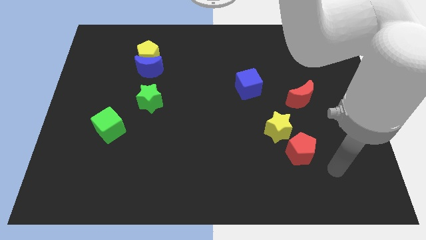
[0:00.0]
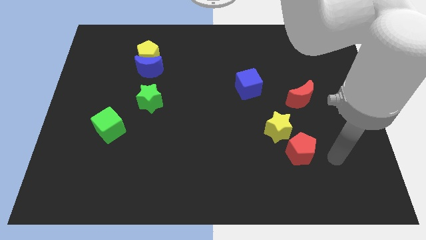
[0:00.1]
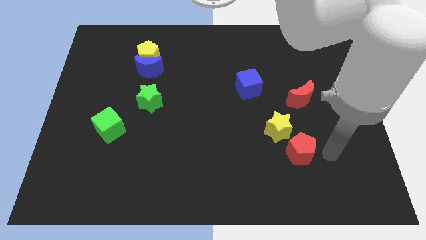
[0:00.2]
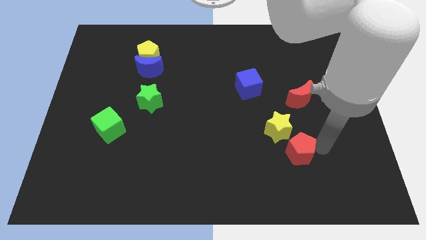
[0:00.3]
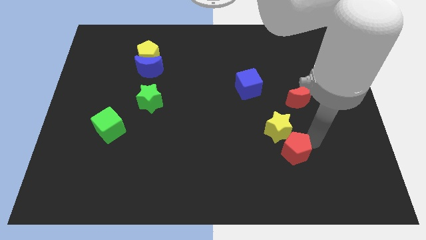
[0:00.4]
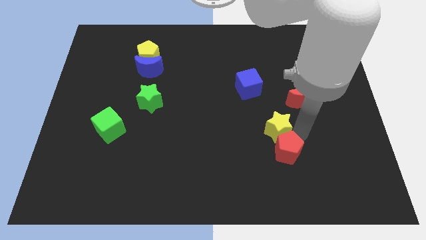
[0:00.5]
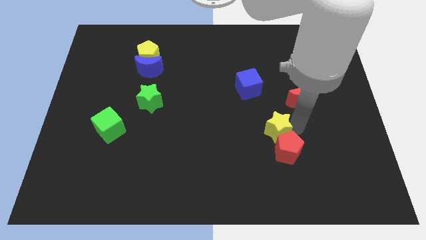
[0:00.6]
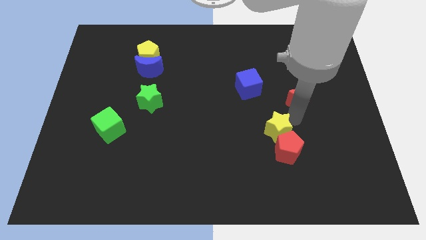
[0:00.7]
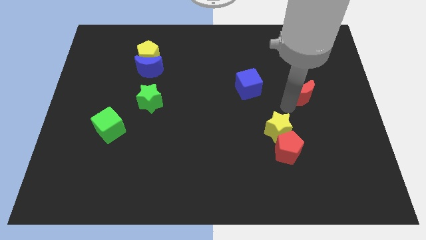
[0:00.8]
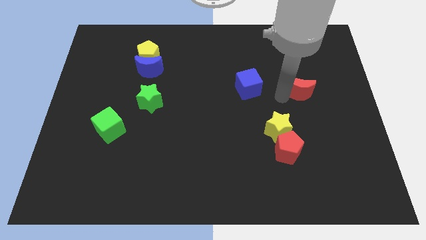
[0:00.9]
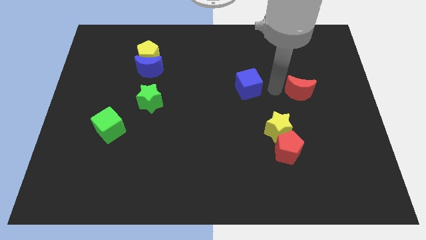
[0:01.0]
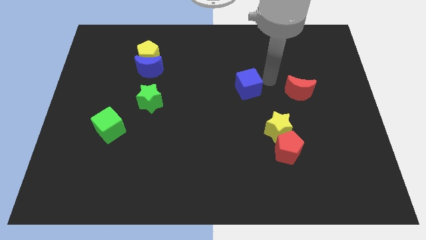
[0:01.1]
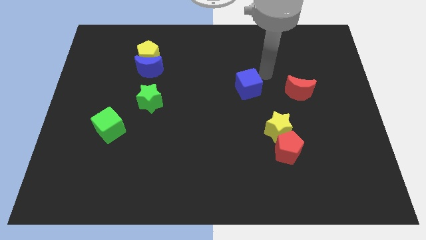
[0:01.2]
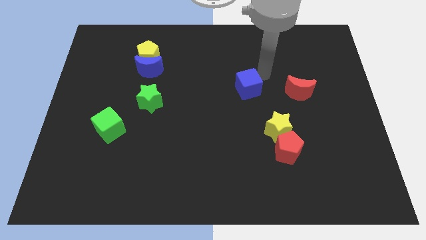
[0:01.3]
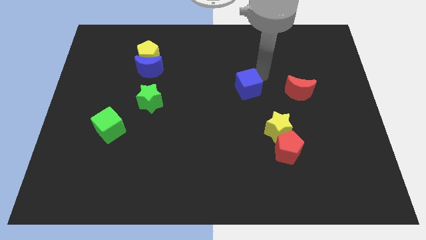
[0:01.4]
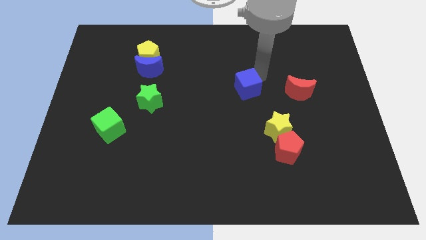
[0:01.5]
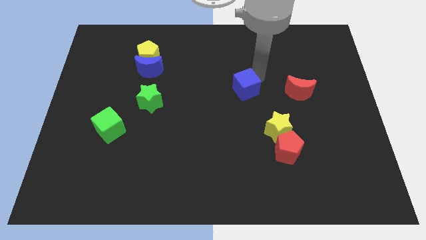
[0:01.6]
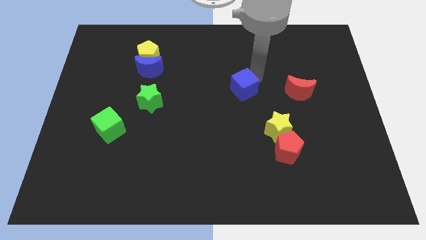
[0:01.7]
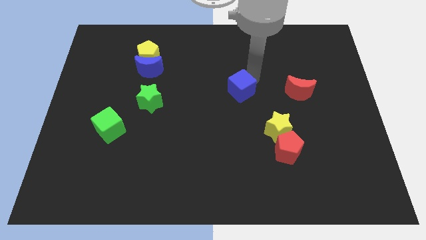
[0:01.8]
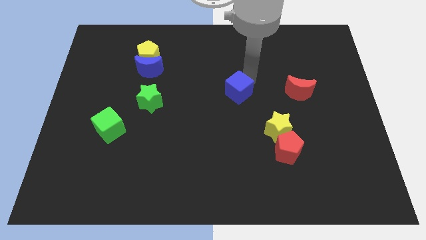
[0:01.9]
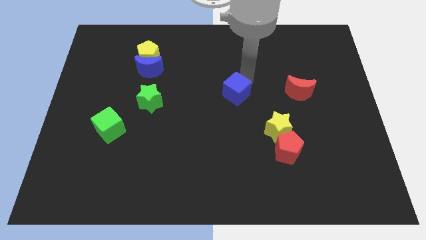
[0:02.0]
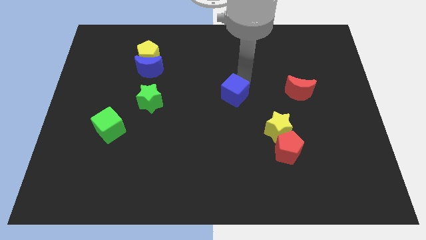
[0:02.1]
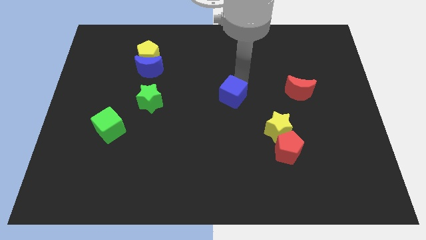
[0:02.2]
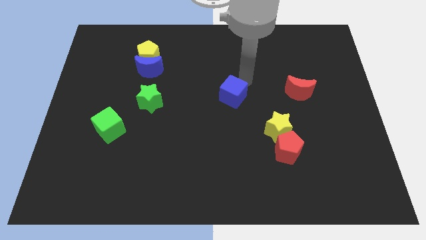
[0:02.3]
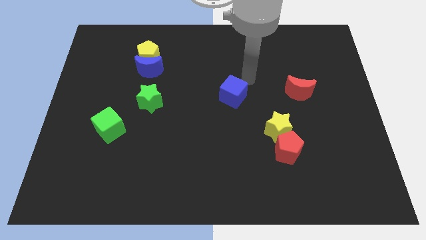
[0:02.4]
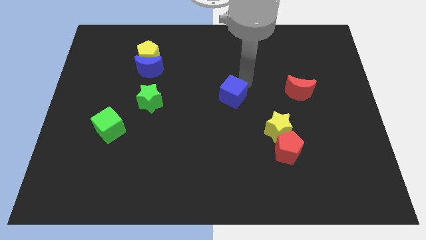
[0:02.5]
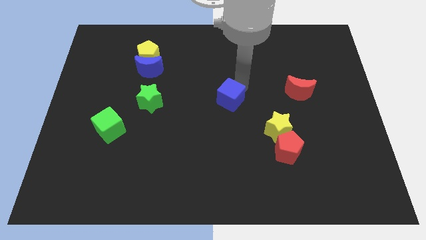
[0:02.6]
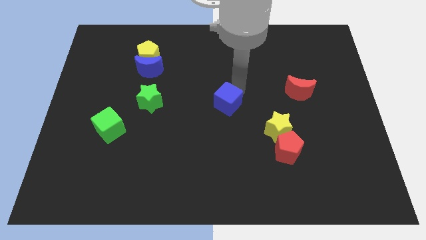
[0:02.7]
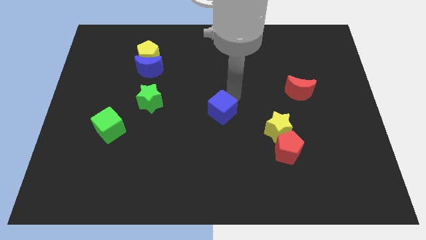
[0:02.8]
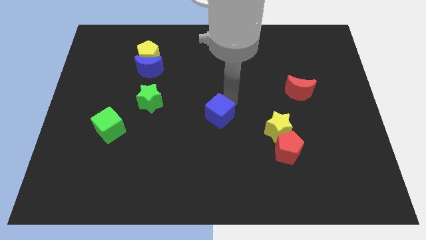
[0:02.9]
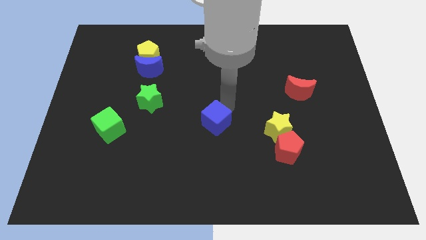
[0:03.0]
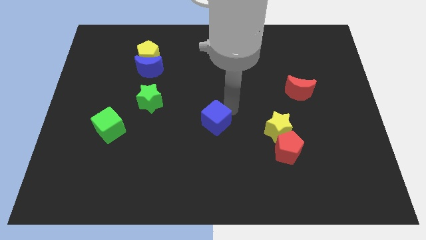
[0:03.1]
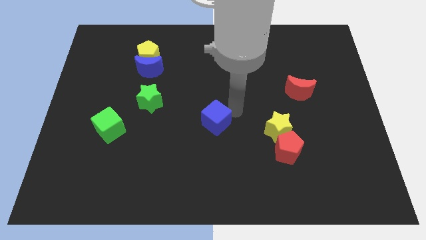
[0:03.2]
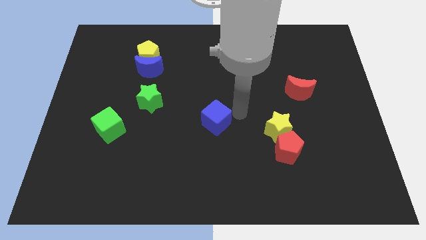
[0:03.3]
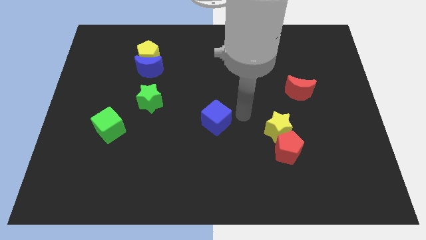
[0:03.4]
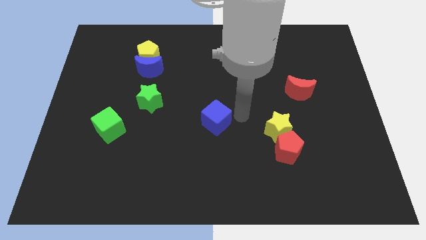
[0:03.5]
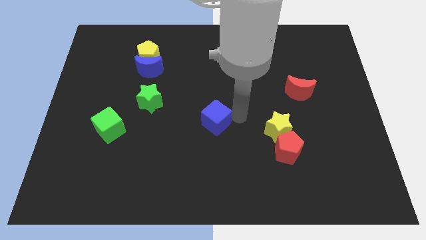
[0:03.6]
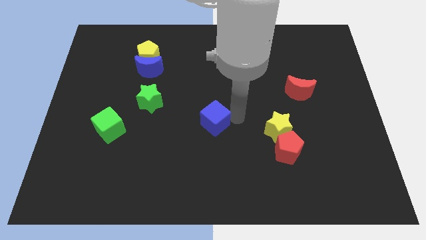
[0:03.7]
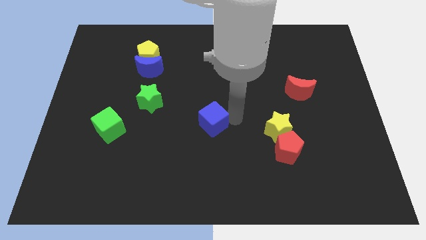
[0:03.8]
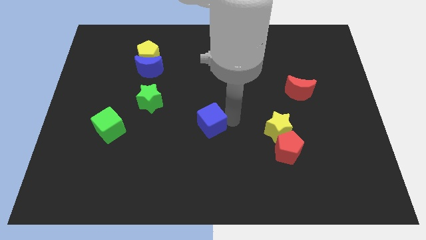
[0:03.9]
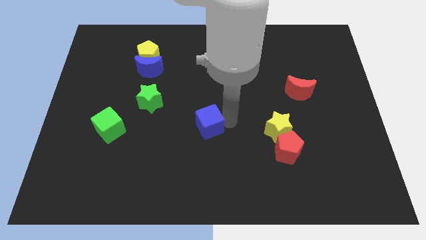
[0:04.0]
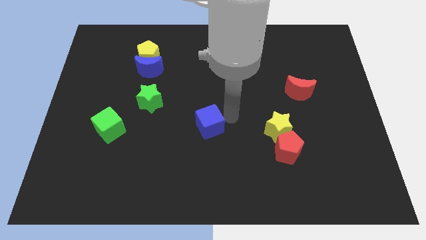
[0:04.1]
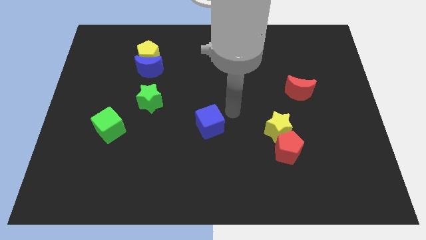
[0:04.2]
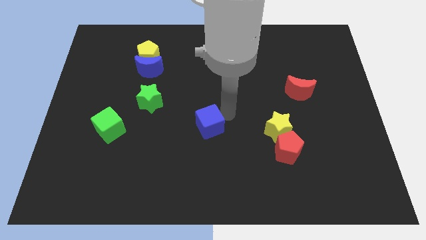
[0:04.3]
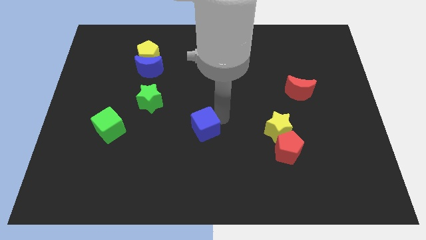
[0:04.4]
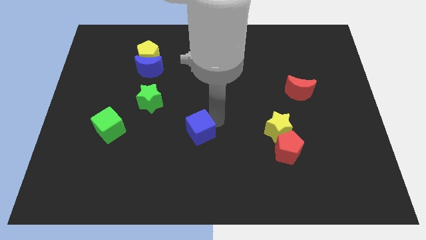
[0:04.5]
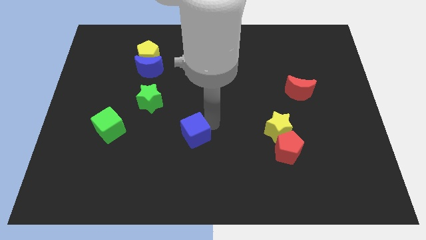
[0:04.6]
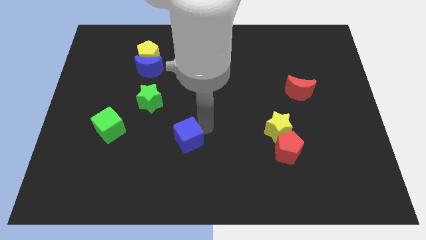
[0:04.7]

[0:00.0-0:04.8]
push the blue cube down and then left

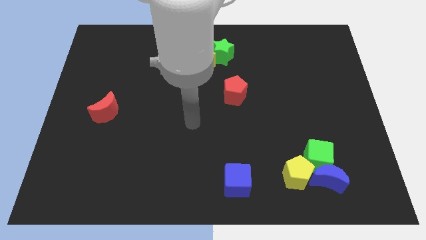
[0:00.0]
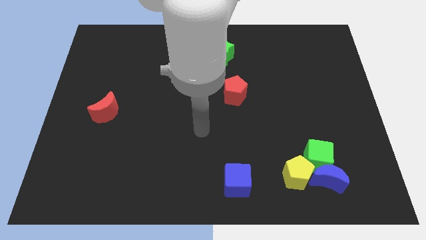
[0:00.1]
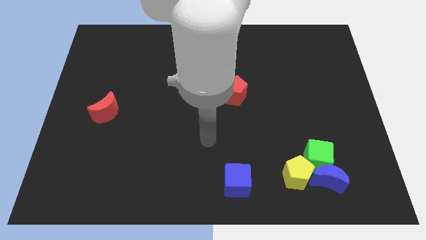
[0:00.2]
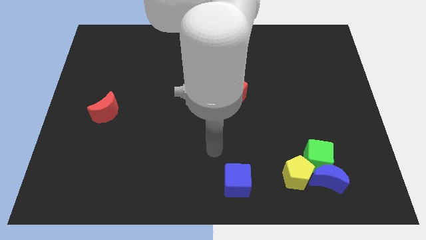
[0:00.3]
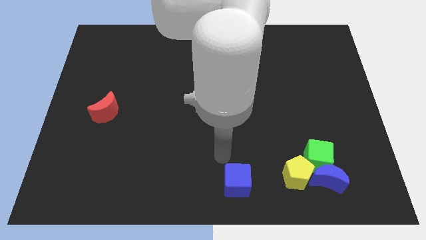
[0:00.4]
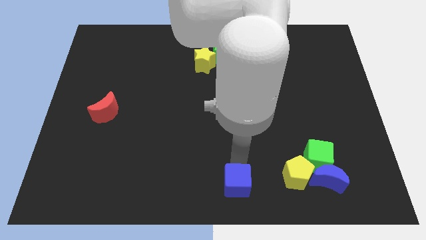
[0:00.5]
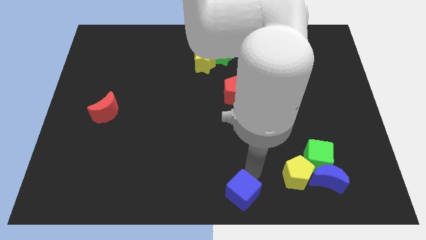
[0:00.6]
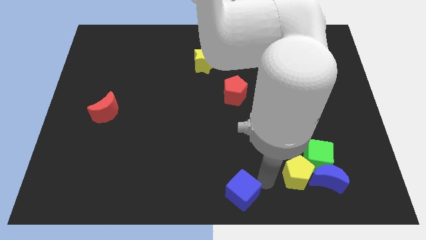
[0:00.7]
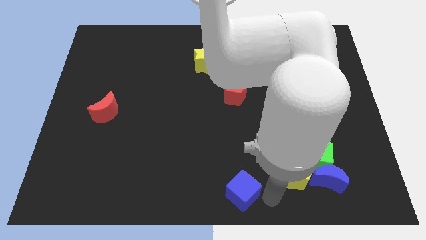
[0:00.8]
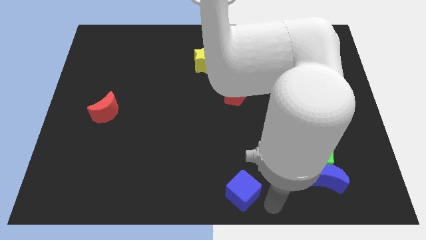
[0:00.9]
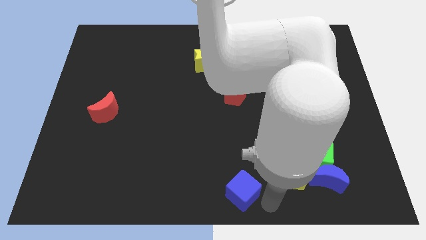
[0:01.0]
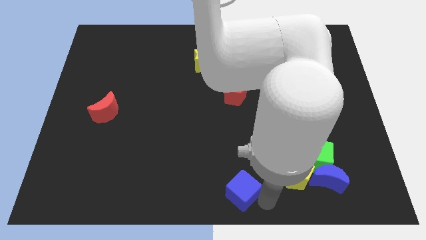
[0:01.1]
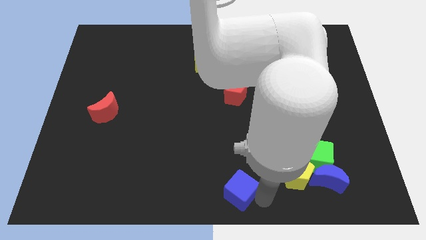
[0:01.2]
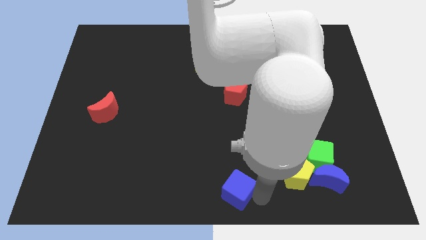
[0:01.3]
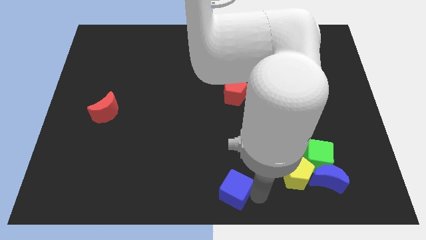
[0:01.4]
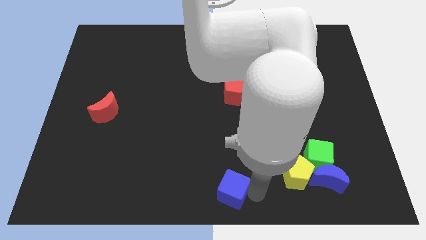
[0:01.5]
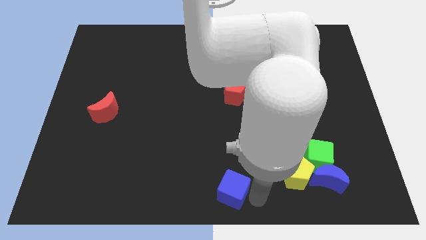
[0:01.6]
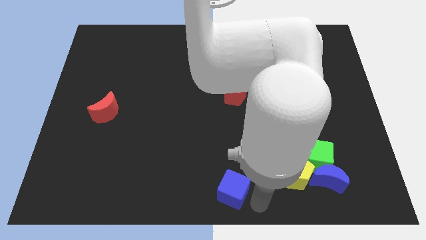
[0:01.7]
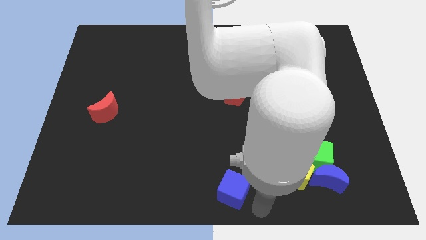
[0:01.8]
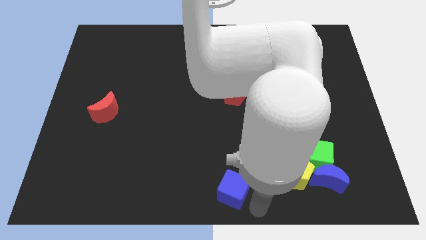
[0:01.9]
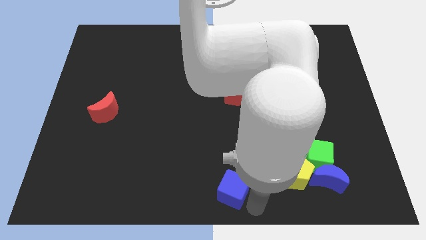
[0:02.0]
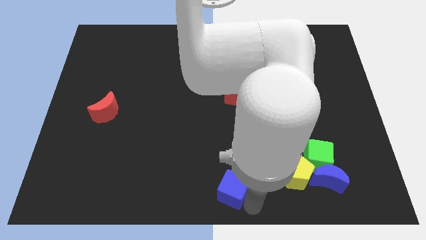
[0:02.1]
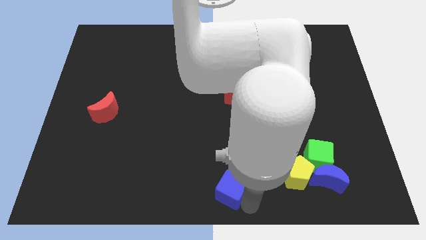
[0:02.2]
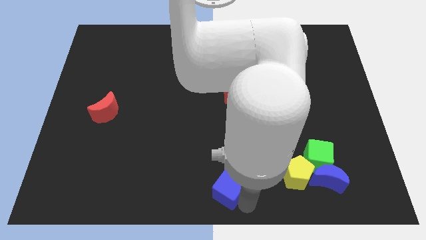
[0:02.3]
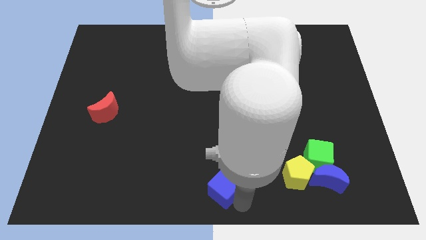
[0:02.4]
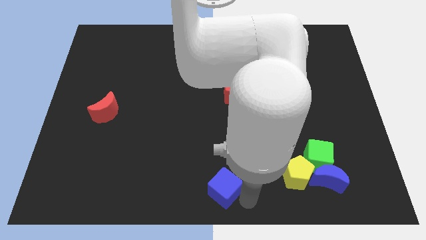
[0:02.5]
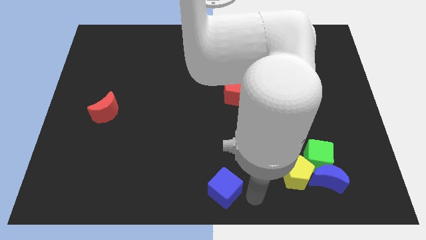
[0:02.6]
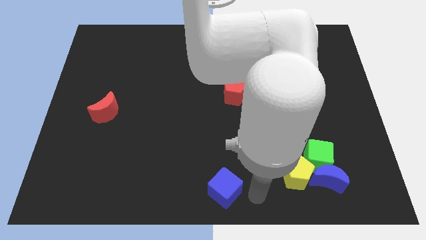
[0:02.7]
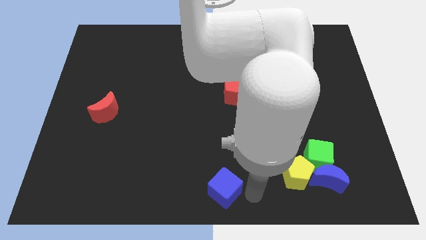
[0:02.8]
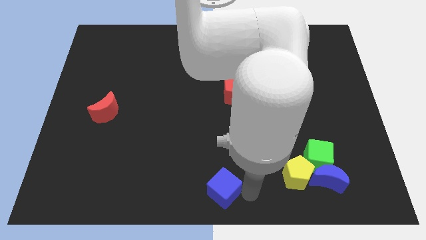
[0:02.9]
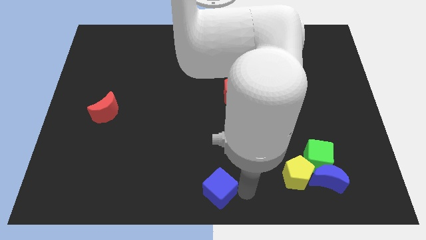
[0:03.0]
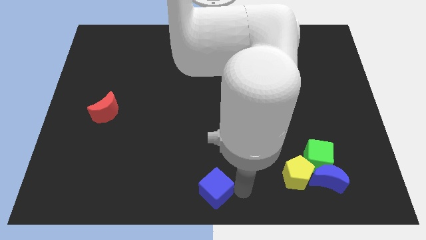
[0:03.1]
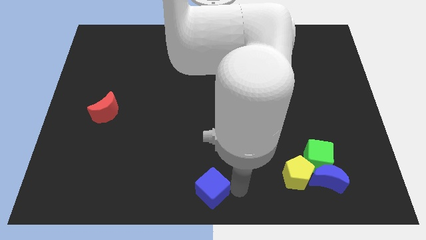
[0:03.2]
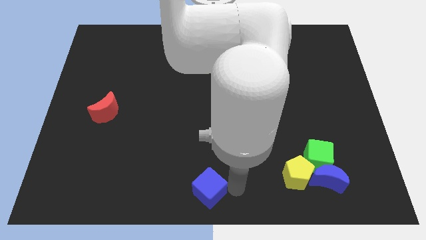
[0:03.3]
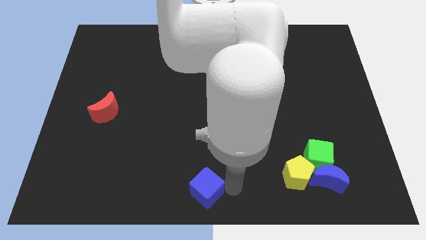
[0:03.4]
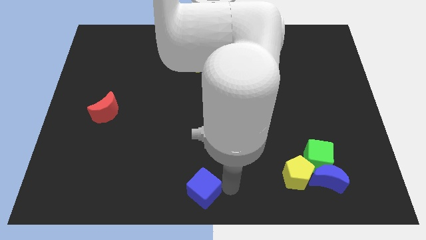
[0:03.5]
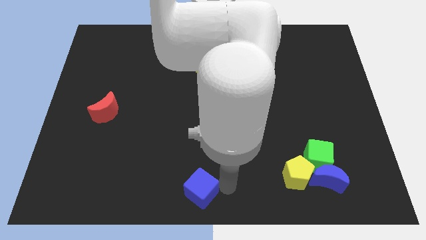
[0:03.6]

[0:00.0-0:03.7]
slide the blue cube left slightly

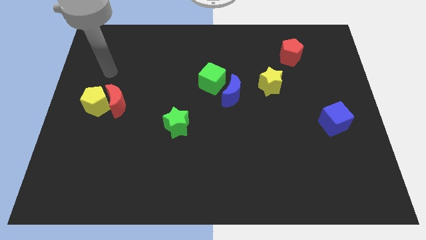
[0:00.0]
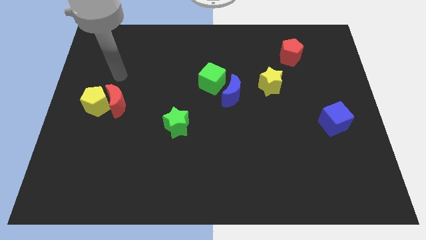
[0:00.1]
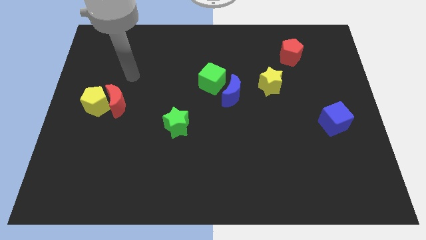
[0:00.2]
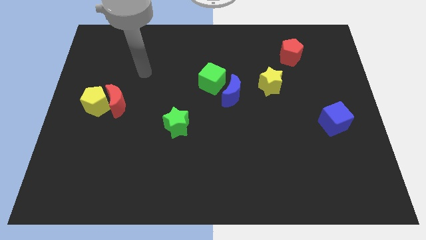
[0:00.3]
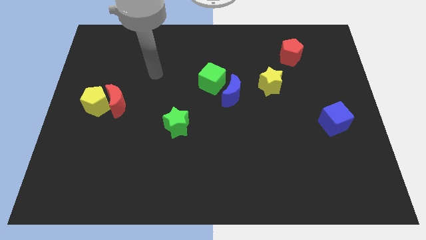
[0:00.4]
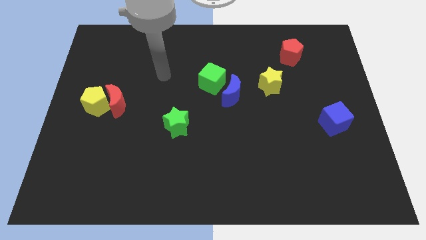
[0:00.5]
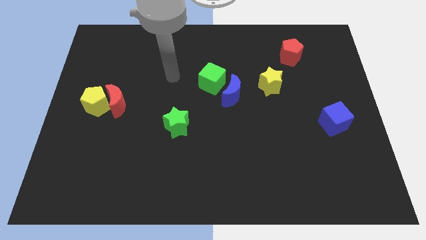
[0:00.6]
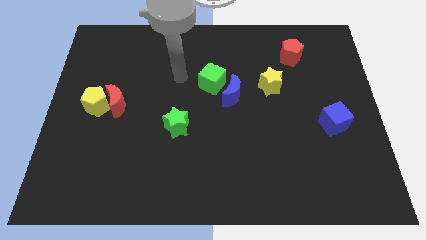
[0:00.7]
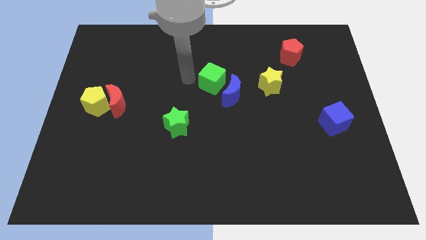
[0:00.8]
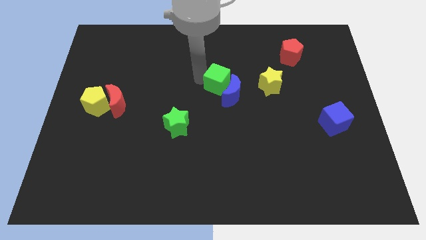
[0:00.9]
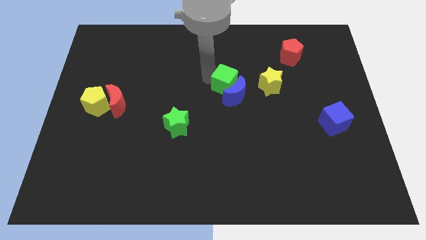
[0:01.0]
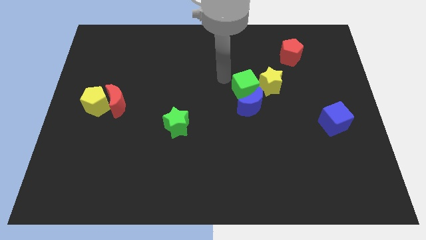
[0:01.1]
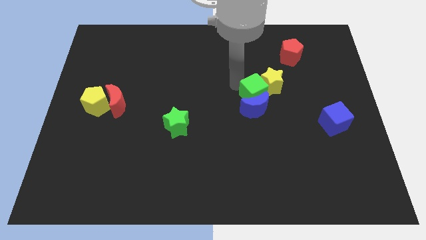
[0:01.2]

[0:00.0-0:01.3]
push the blue moon slightly diagonally downwards and right
